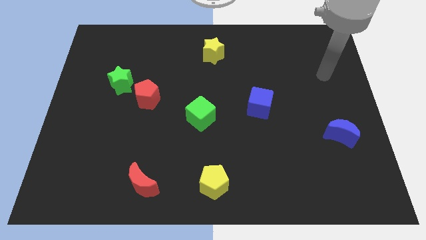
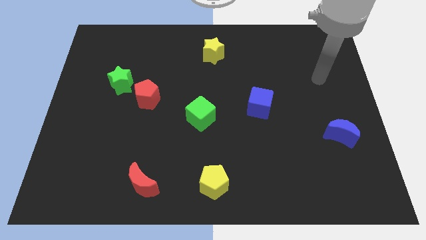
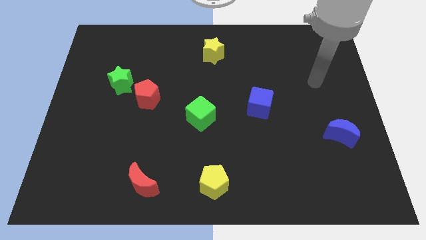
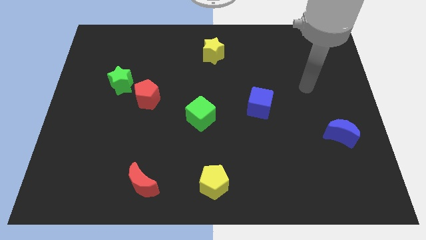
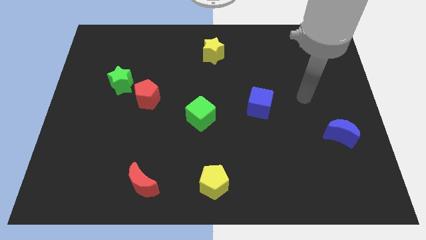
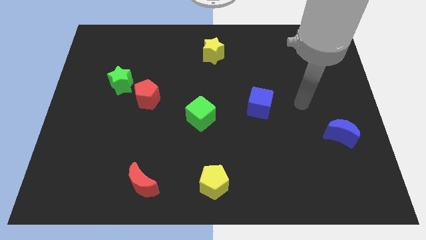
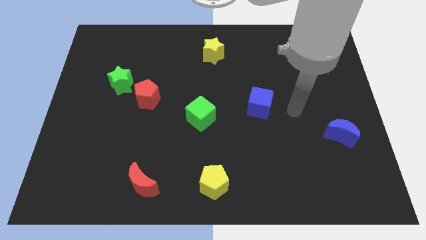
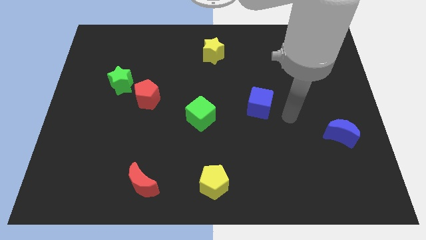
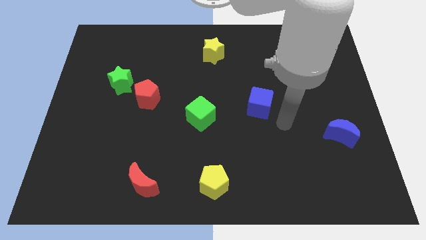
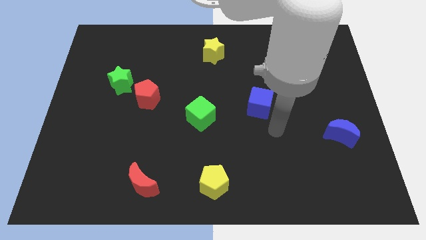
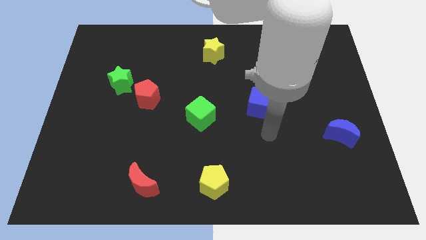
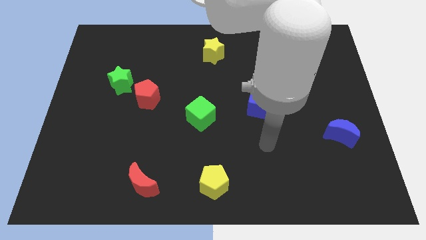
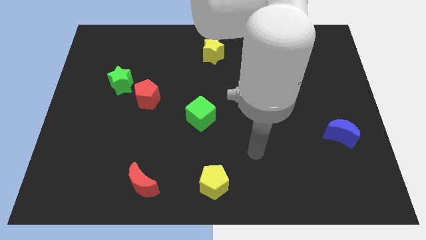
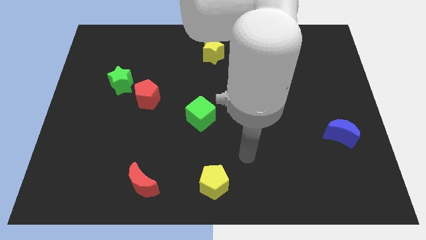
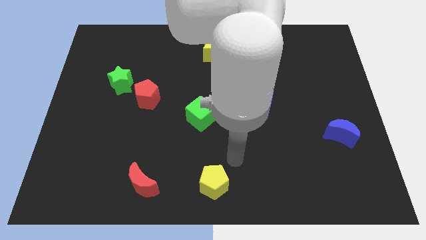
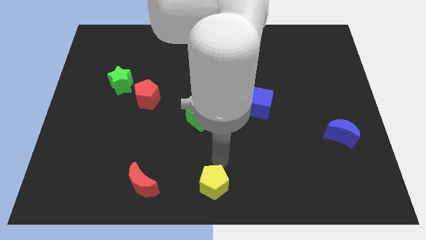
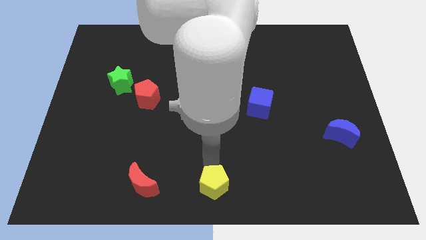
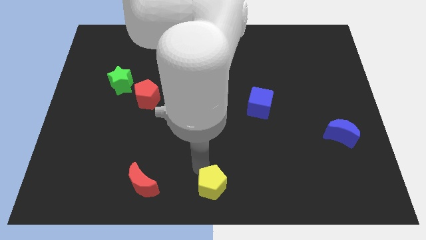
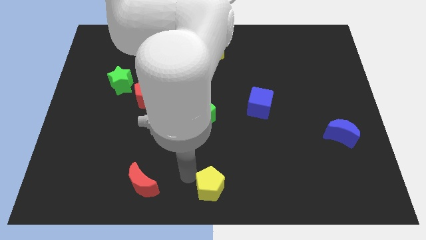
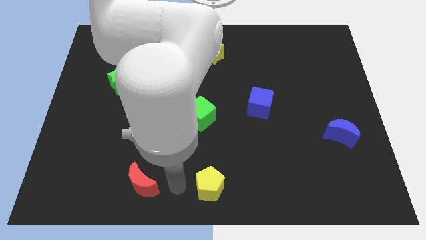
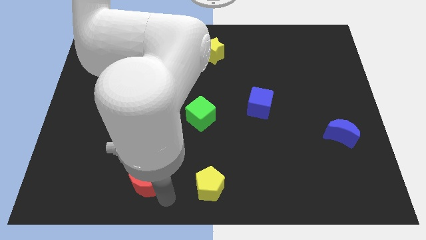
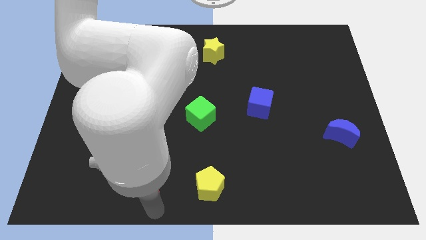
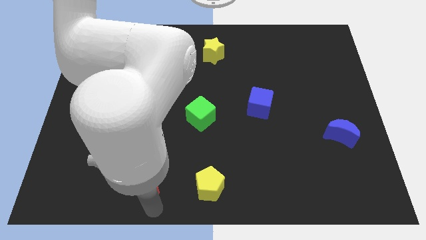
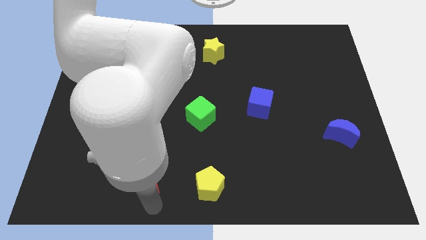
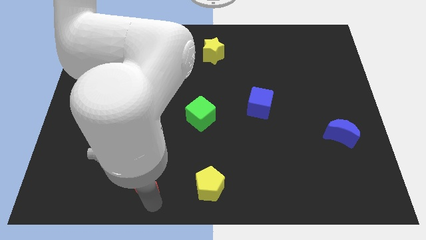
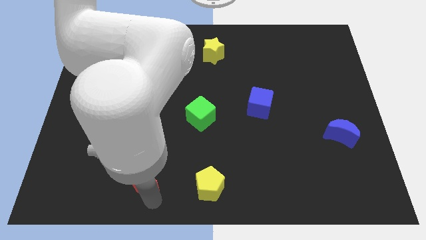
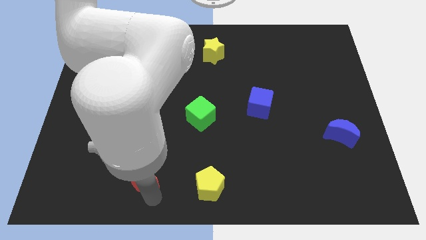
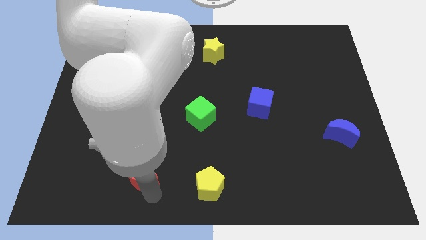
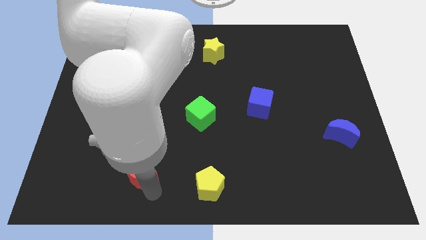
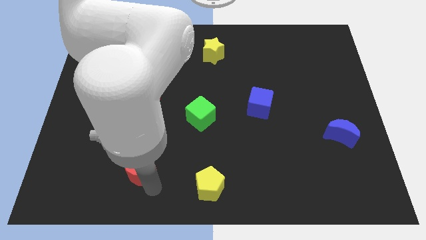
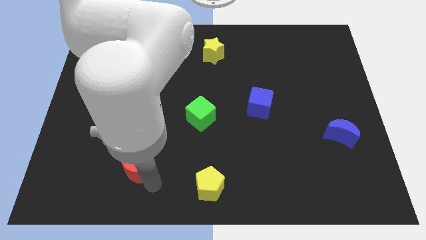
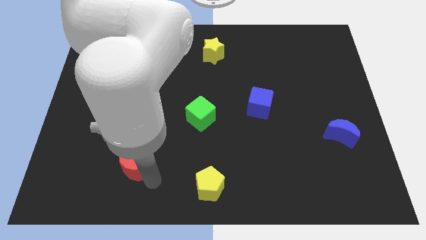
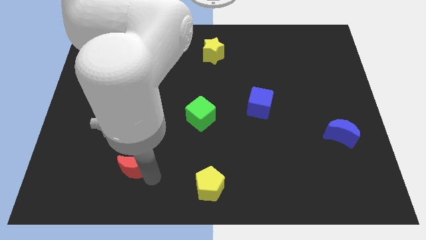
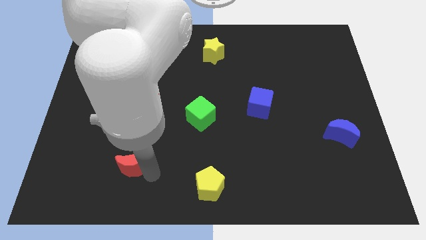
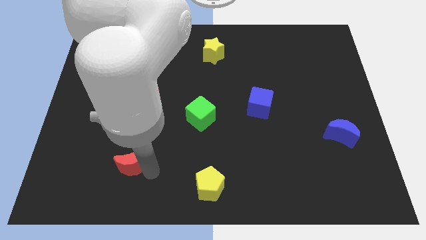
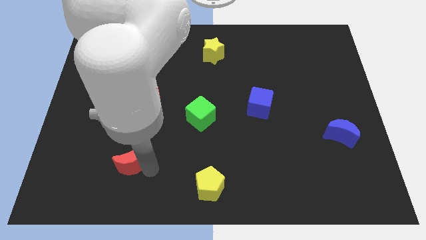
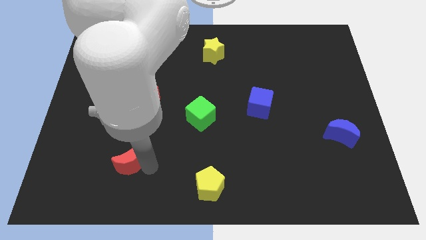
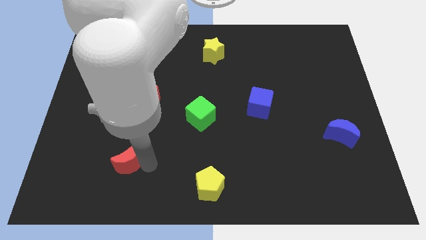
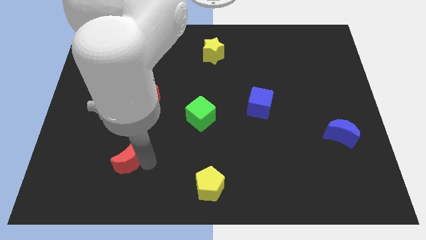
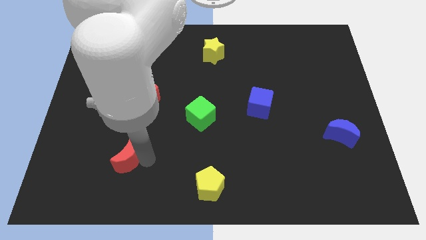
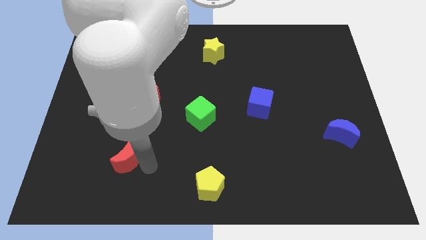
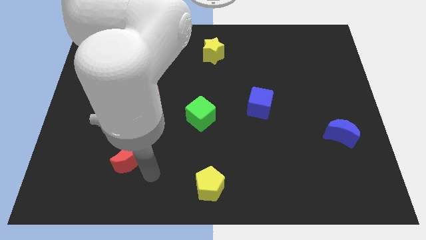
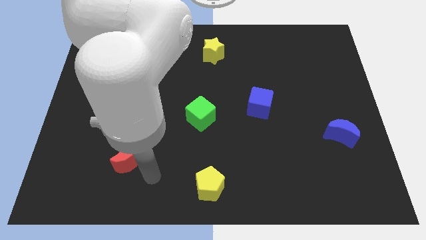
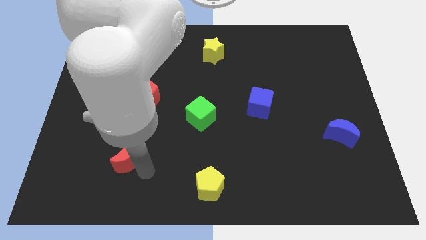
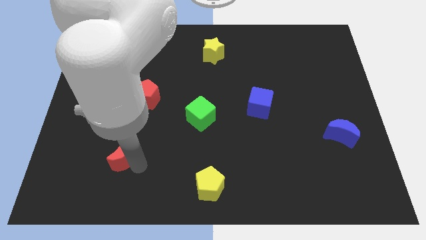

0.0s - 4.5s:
move the red moon a bit up and then left

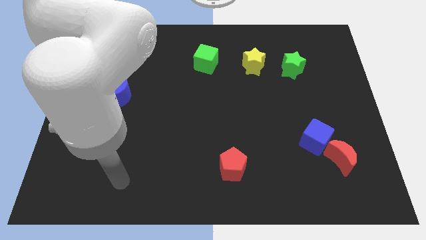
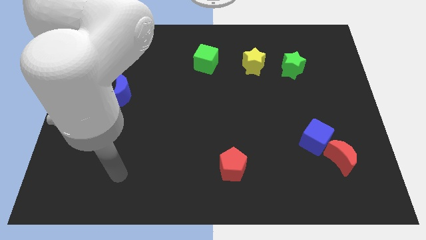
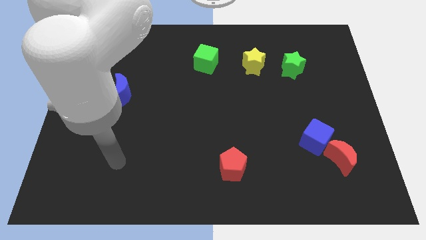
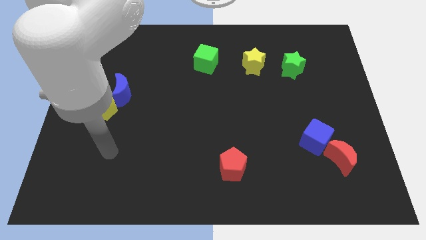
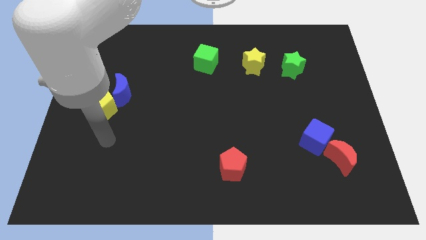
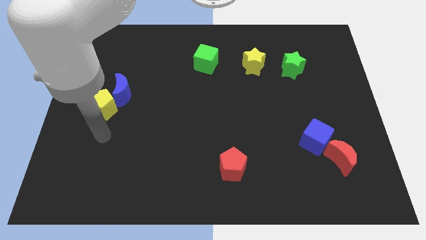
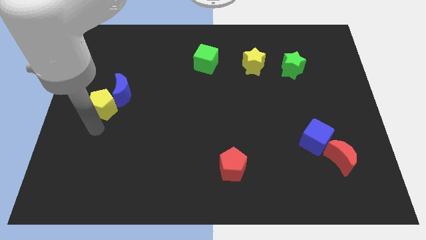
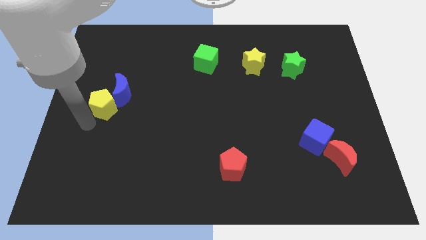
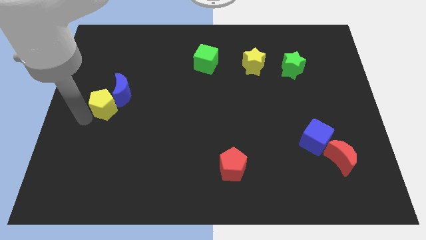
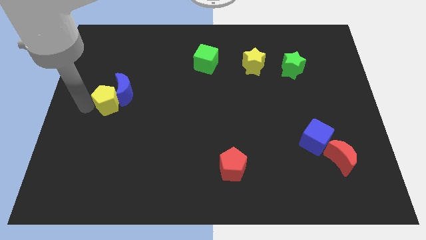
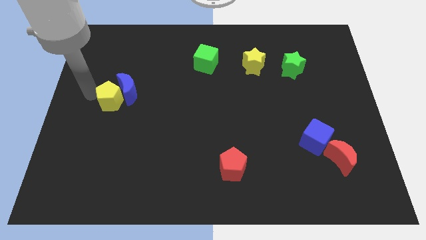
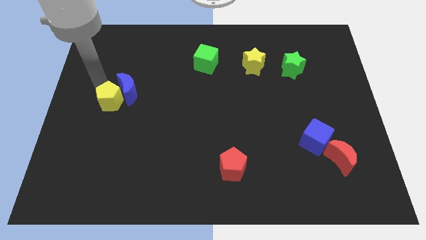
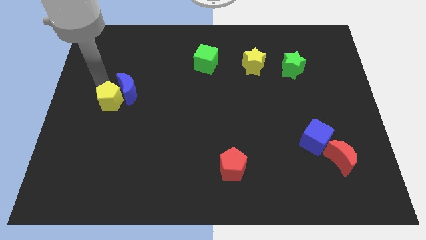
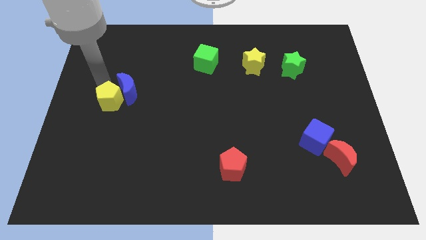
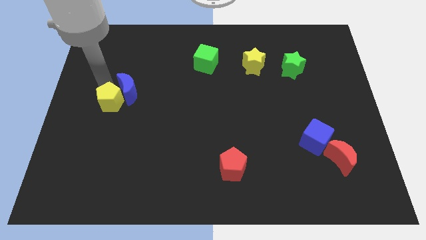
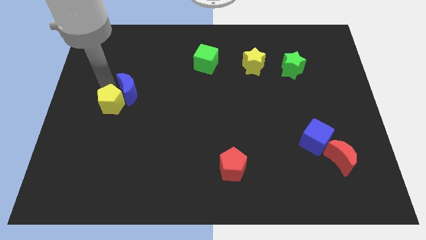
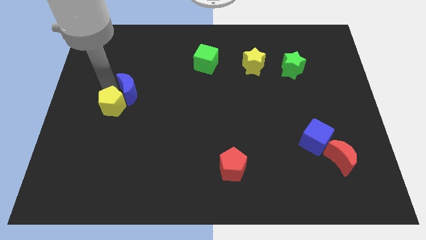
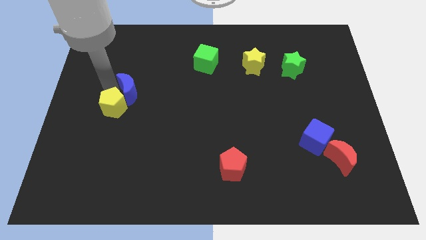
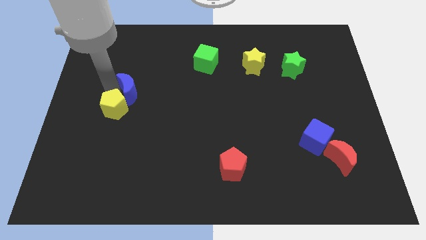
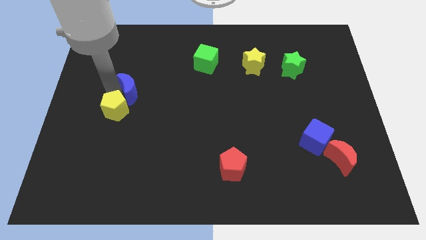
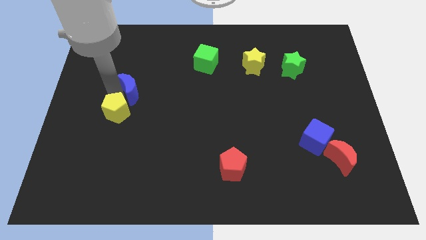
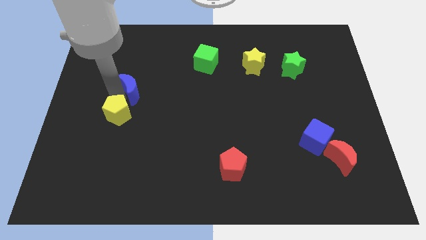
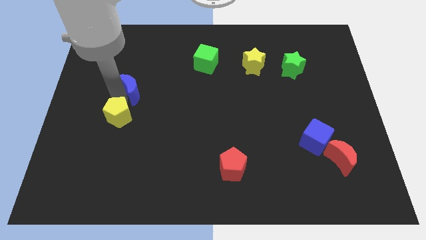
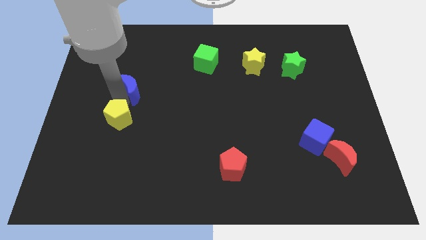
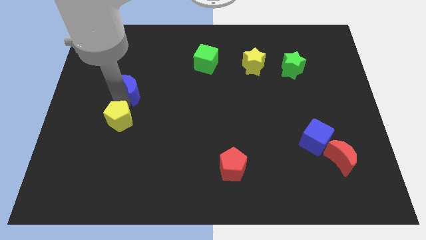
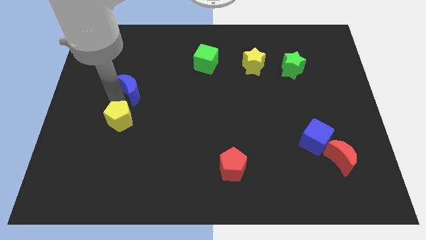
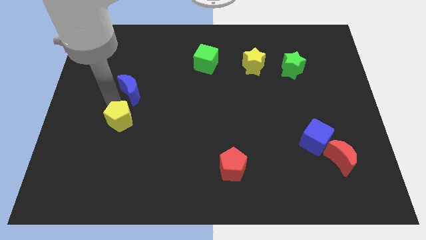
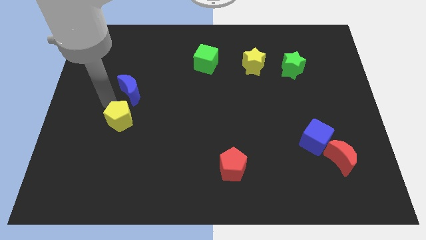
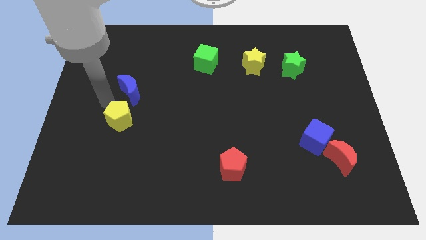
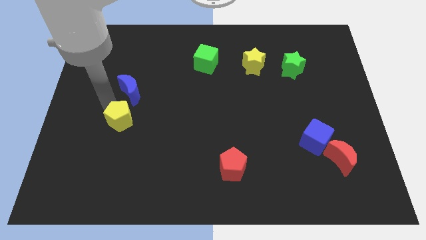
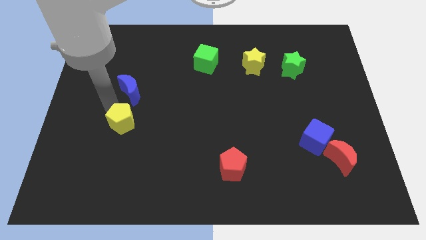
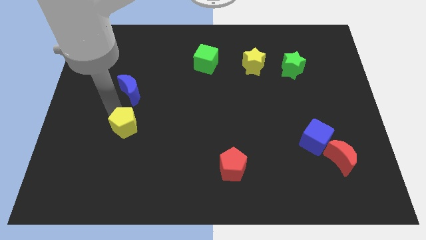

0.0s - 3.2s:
slide the yellow pentagon a bit down and to the right diagonally
